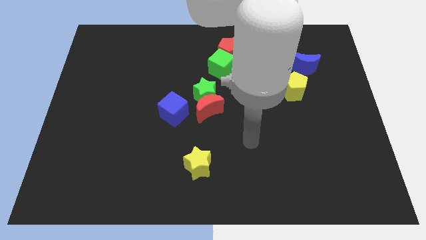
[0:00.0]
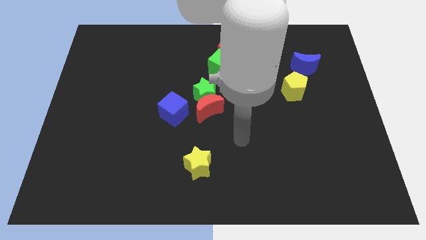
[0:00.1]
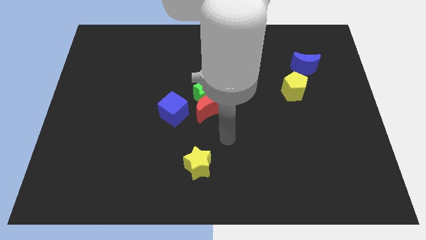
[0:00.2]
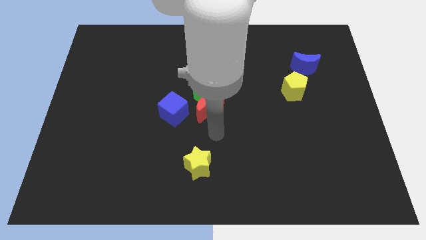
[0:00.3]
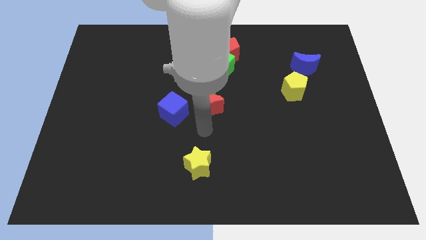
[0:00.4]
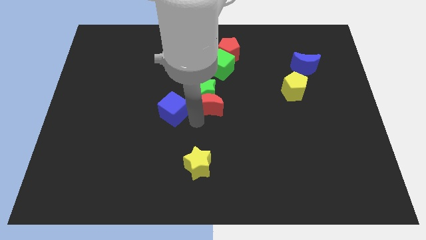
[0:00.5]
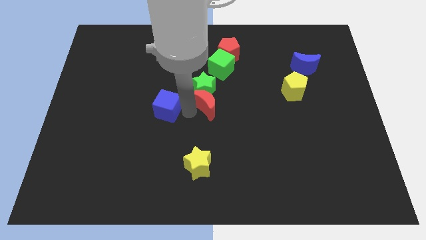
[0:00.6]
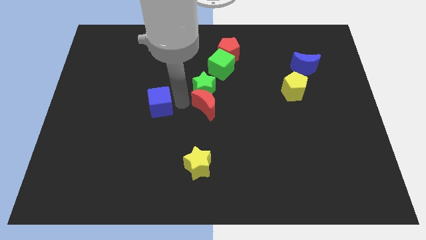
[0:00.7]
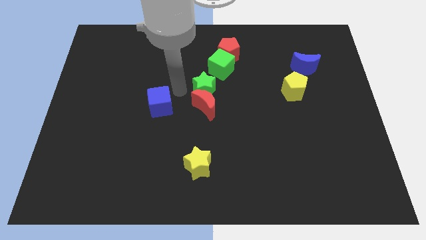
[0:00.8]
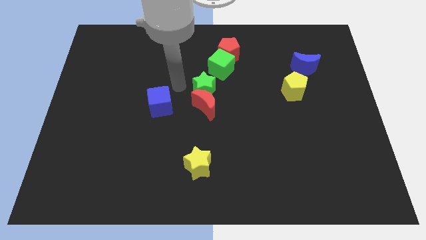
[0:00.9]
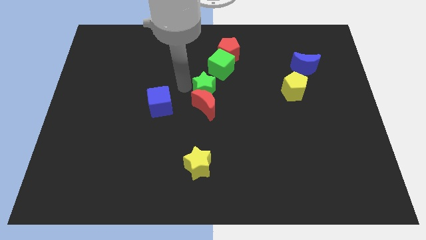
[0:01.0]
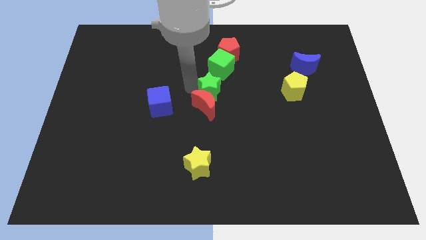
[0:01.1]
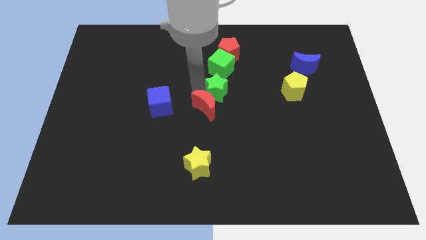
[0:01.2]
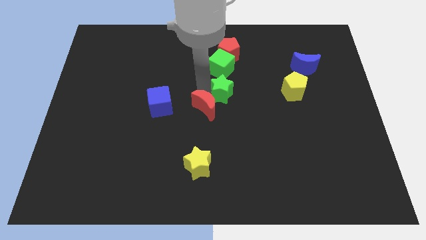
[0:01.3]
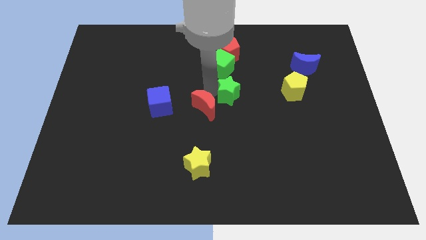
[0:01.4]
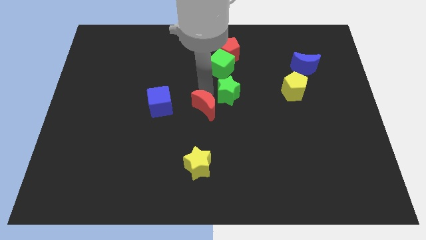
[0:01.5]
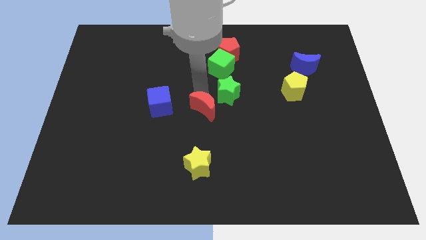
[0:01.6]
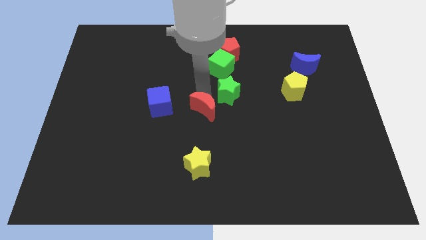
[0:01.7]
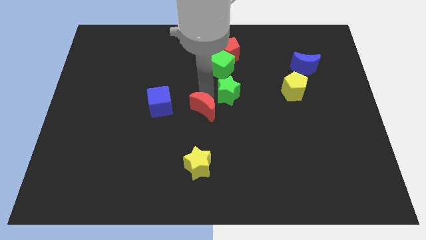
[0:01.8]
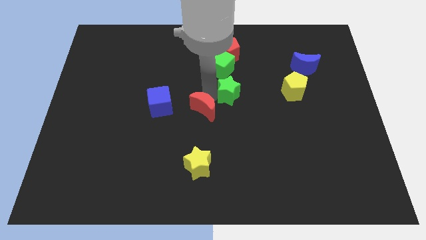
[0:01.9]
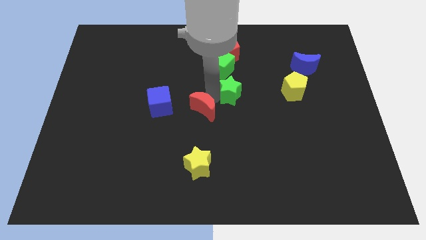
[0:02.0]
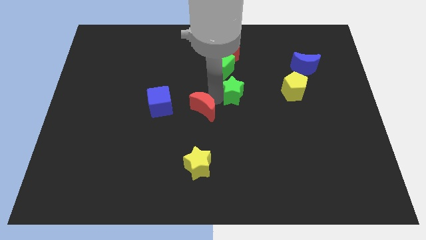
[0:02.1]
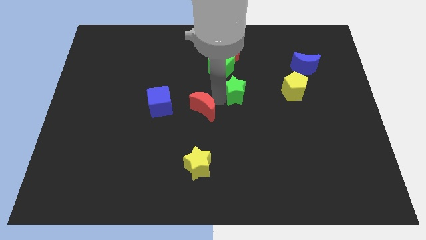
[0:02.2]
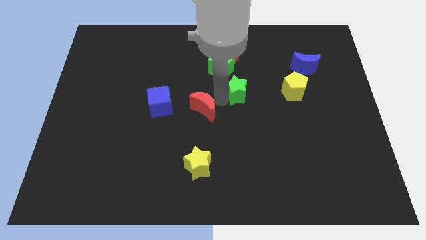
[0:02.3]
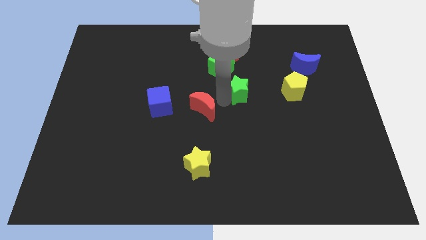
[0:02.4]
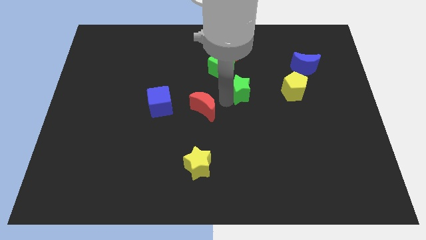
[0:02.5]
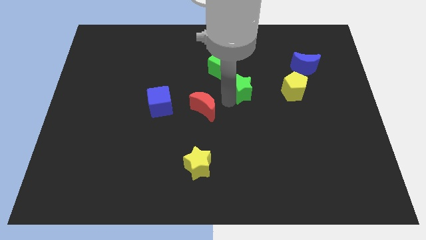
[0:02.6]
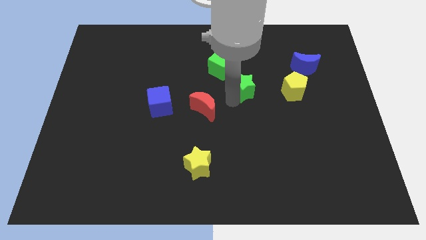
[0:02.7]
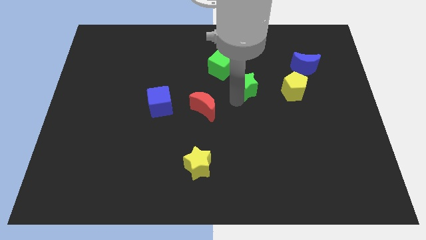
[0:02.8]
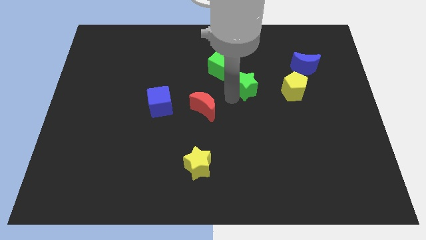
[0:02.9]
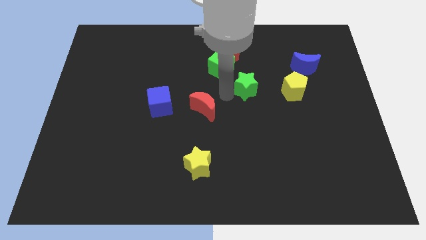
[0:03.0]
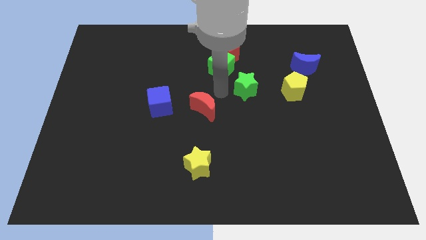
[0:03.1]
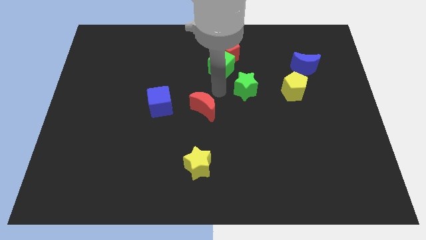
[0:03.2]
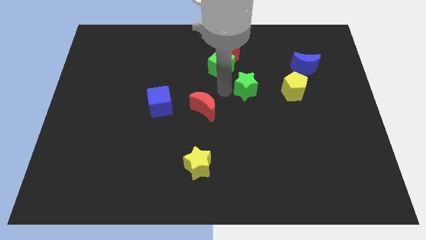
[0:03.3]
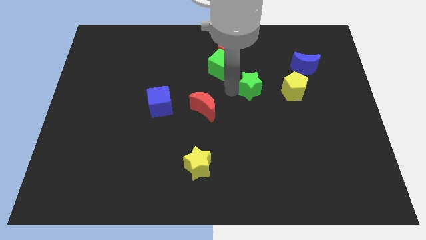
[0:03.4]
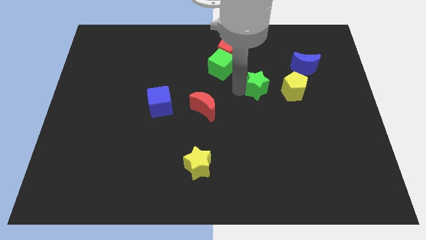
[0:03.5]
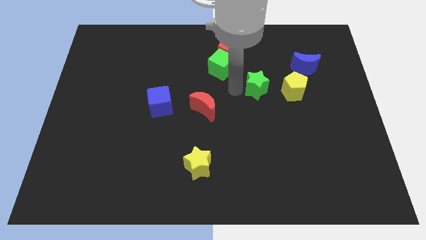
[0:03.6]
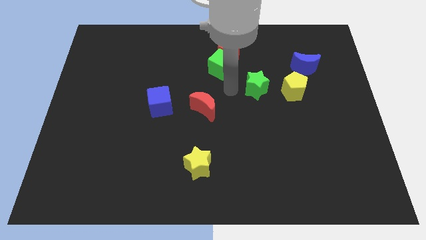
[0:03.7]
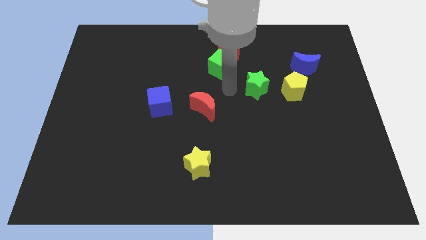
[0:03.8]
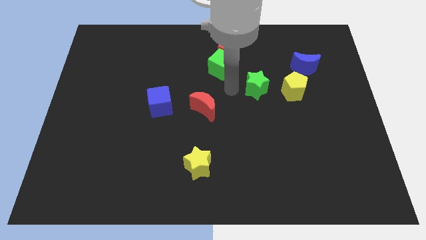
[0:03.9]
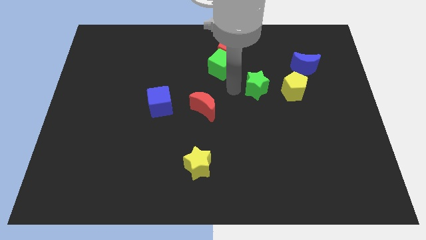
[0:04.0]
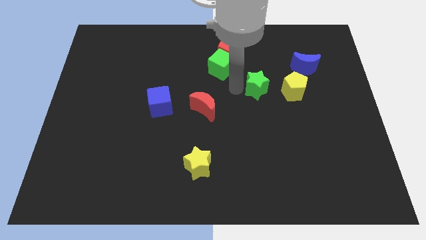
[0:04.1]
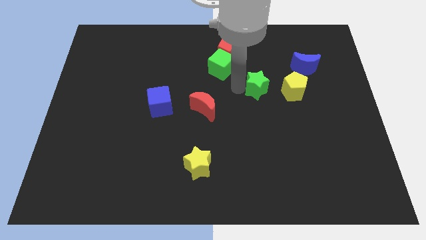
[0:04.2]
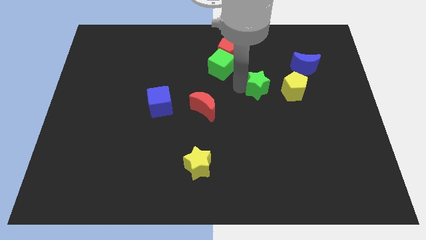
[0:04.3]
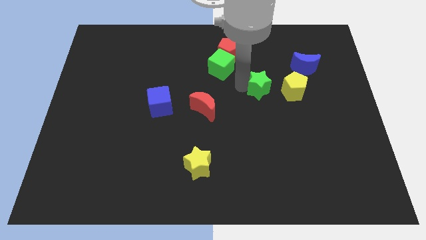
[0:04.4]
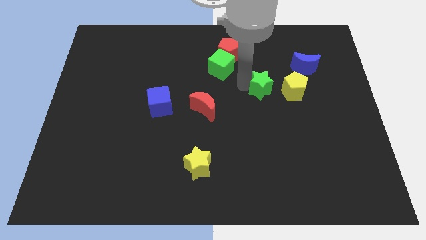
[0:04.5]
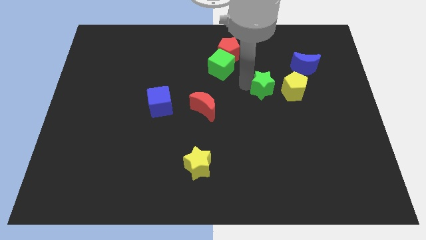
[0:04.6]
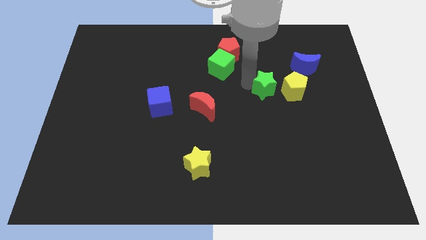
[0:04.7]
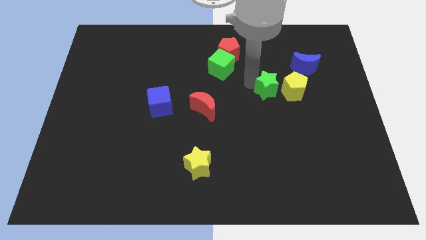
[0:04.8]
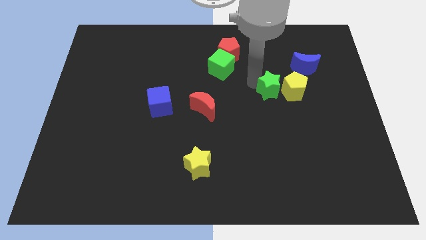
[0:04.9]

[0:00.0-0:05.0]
move the green star to the yellow pentagon

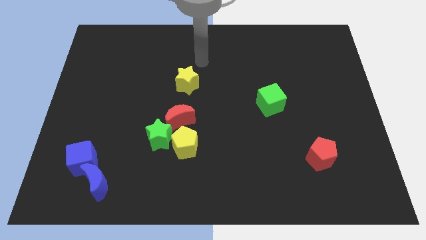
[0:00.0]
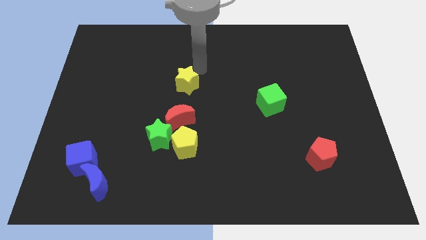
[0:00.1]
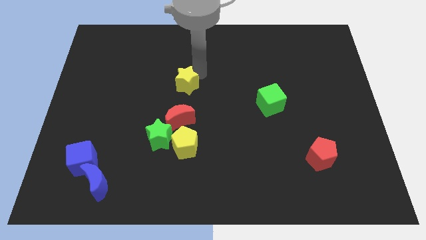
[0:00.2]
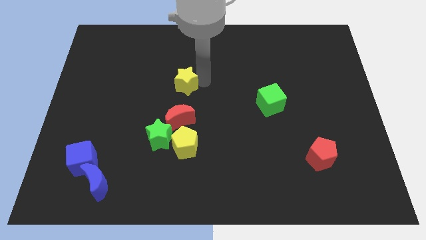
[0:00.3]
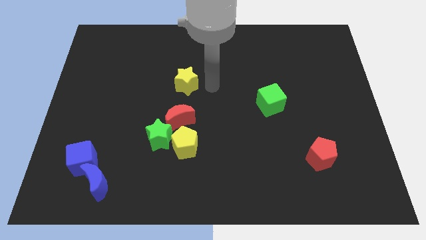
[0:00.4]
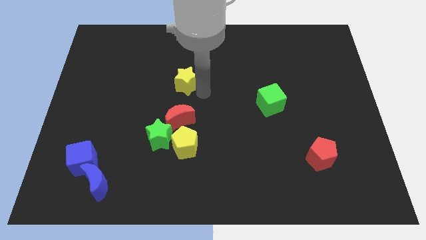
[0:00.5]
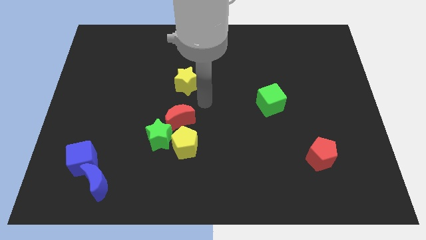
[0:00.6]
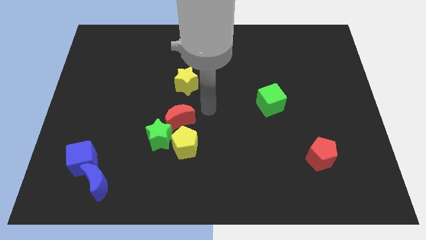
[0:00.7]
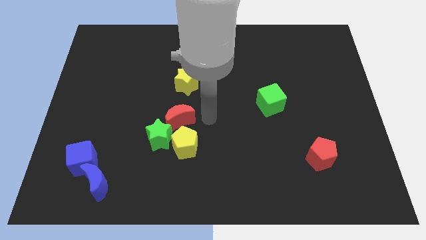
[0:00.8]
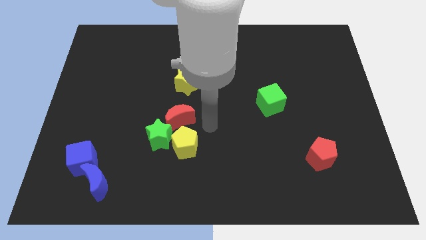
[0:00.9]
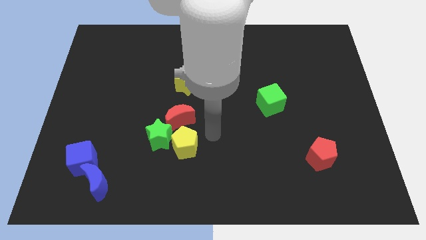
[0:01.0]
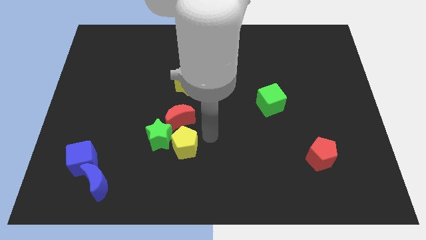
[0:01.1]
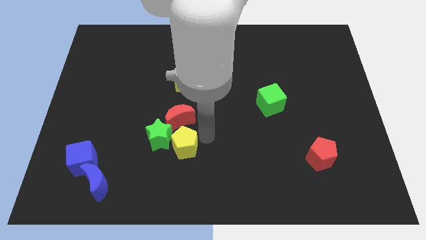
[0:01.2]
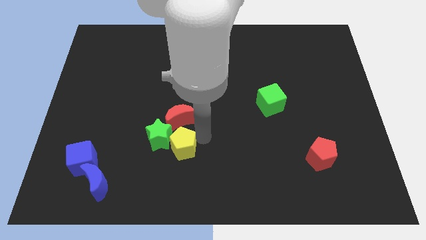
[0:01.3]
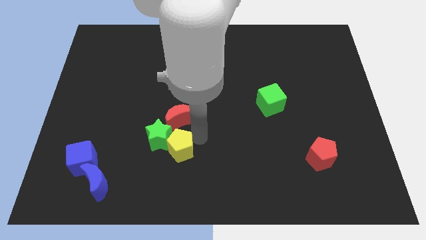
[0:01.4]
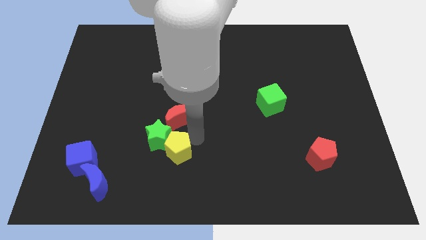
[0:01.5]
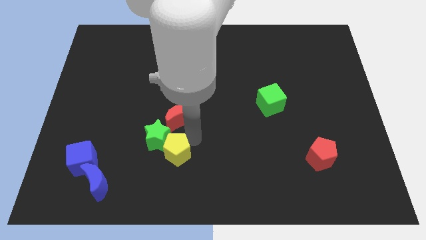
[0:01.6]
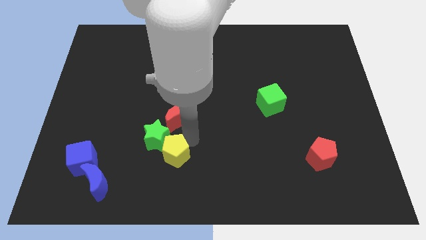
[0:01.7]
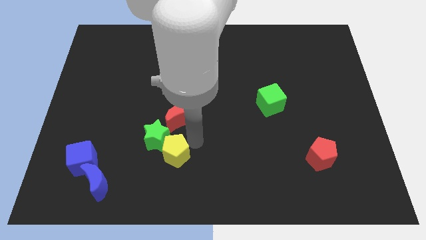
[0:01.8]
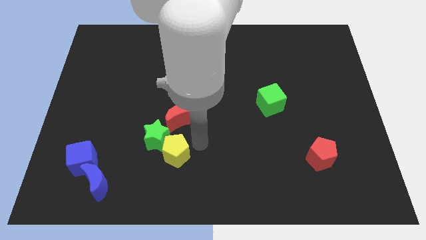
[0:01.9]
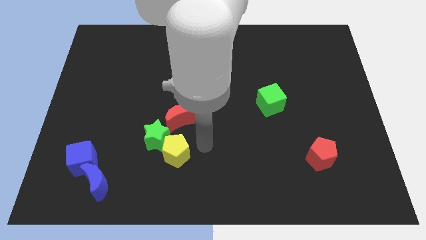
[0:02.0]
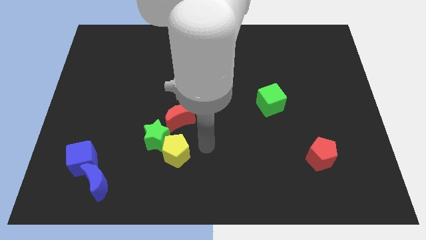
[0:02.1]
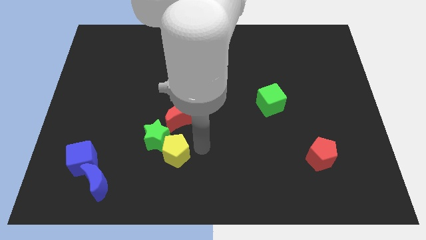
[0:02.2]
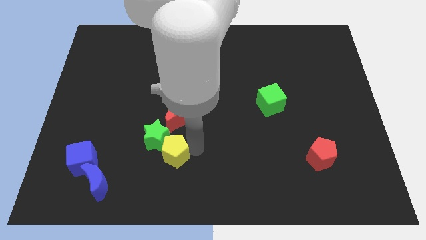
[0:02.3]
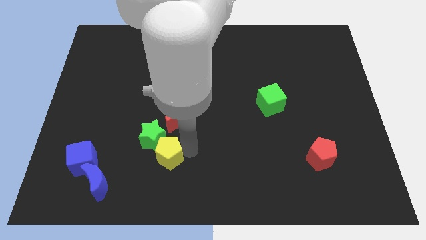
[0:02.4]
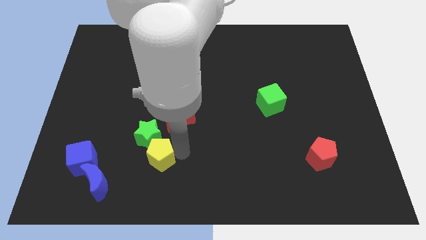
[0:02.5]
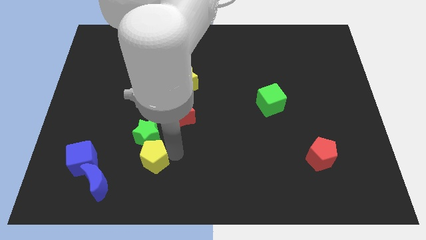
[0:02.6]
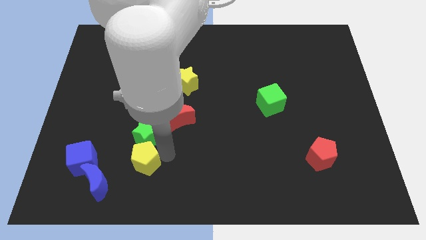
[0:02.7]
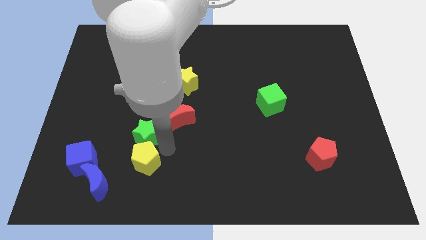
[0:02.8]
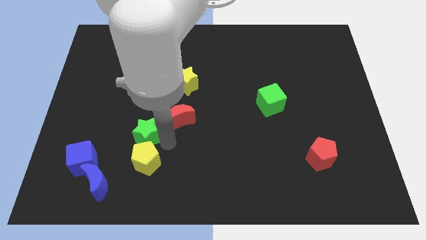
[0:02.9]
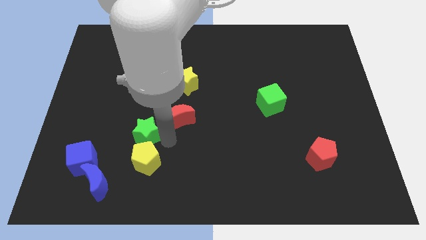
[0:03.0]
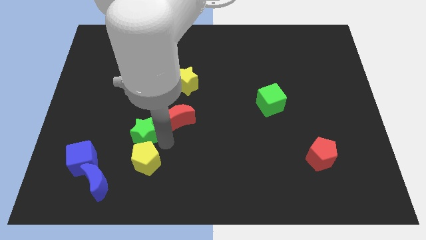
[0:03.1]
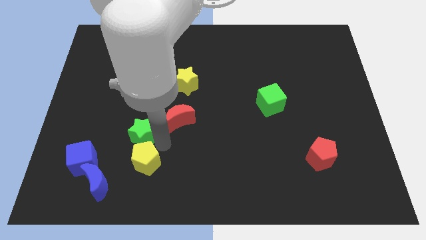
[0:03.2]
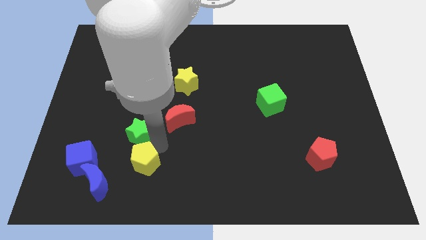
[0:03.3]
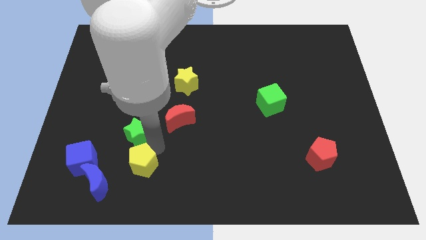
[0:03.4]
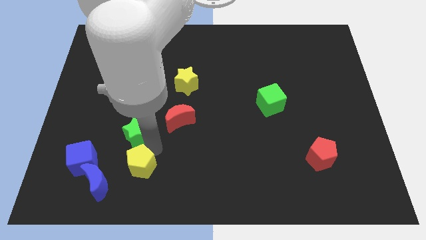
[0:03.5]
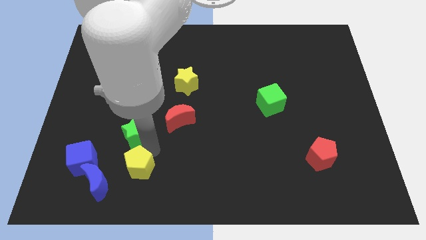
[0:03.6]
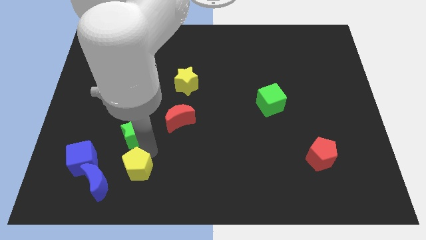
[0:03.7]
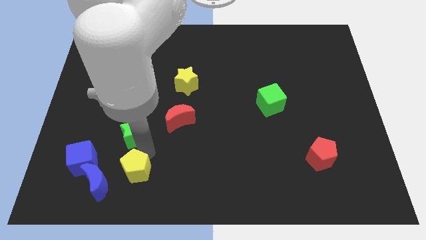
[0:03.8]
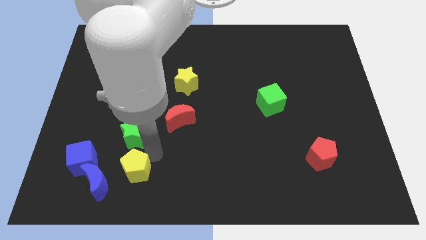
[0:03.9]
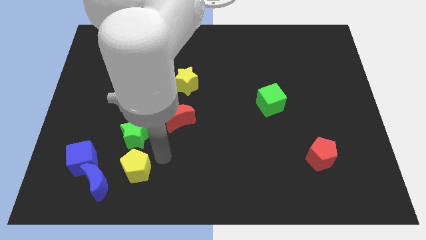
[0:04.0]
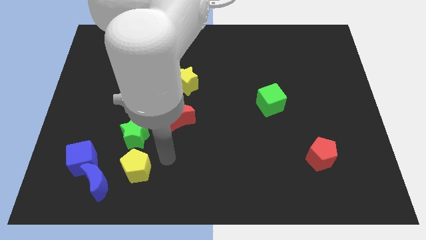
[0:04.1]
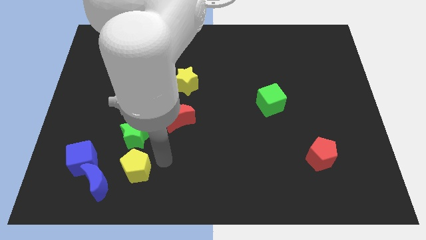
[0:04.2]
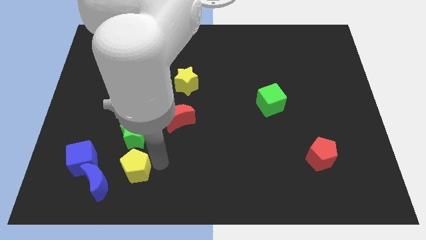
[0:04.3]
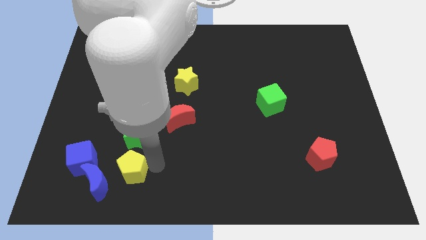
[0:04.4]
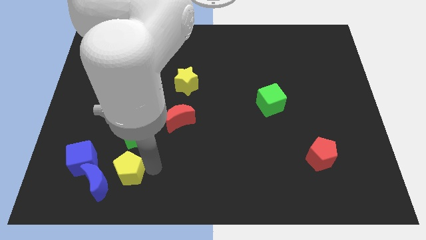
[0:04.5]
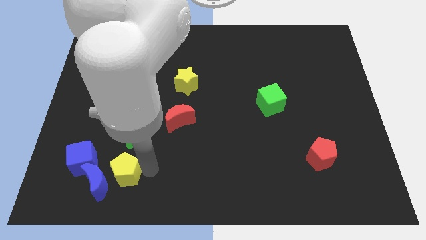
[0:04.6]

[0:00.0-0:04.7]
put the yellow pentagon towards the blue moon
